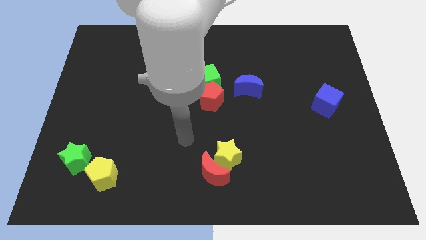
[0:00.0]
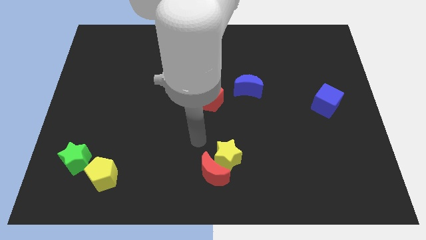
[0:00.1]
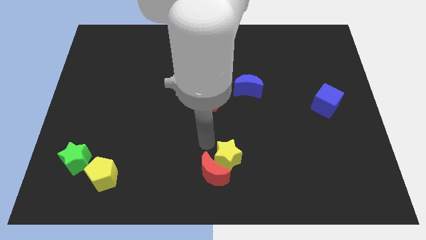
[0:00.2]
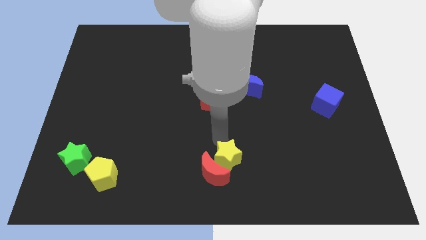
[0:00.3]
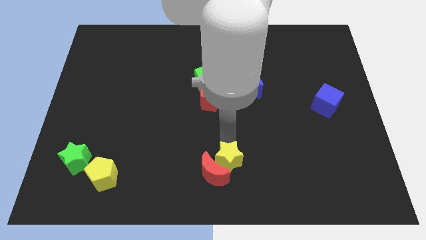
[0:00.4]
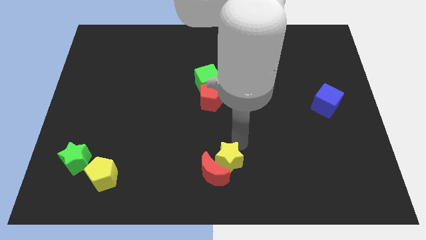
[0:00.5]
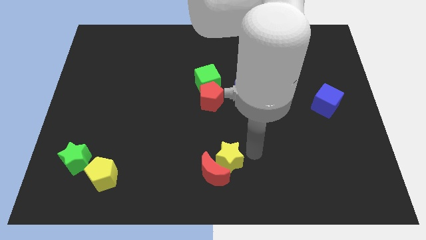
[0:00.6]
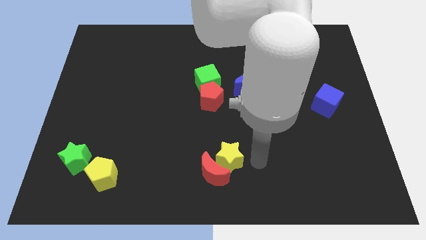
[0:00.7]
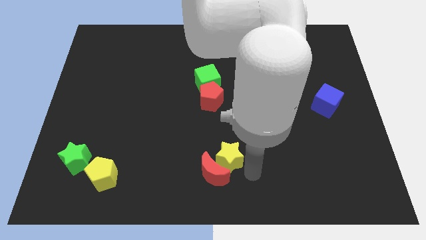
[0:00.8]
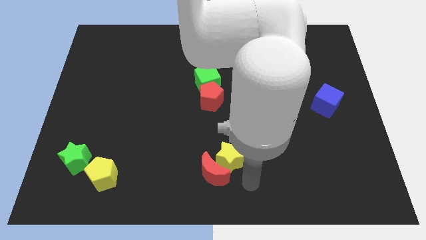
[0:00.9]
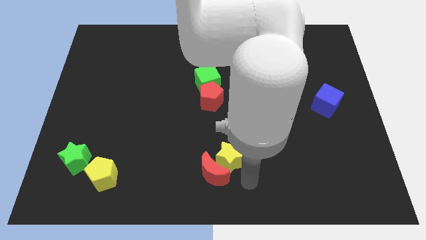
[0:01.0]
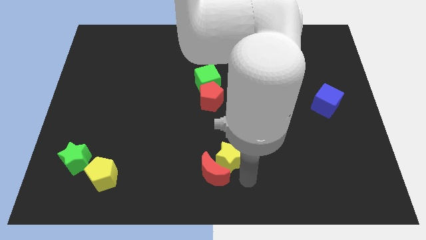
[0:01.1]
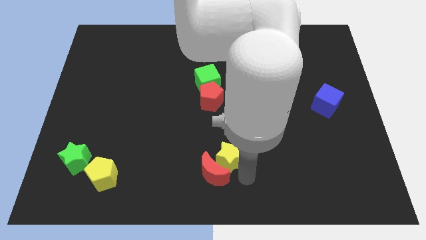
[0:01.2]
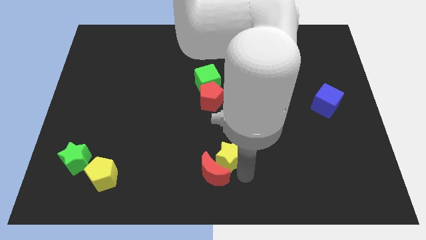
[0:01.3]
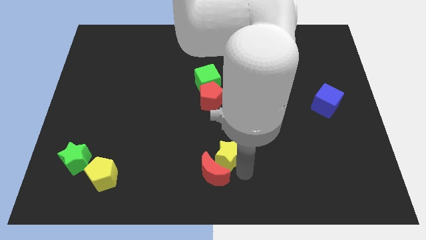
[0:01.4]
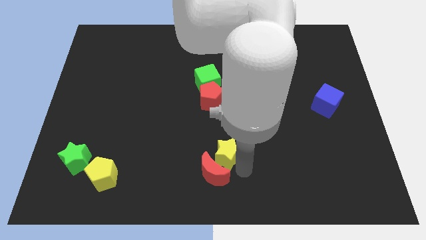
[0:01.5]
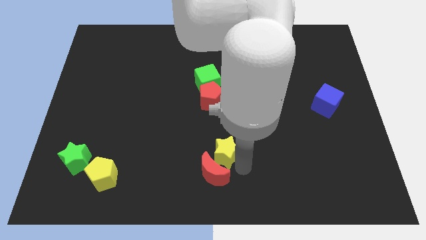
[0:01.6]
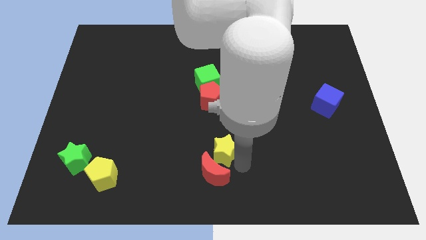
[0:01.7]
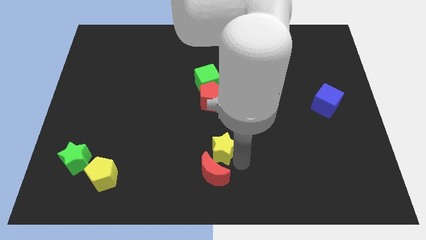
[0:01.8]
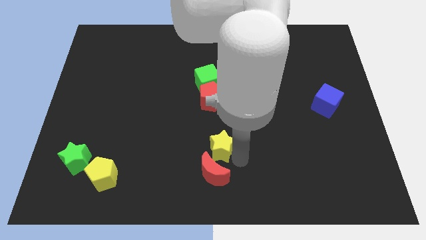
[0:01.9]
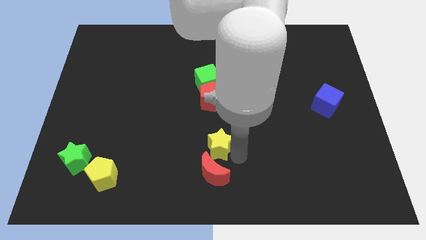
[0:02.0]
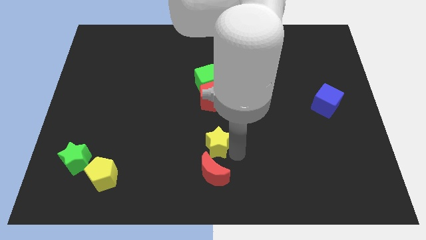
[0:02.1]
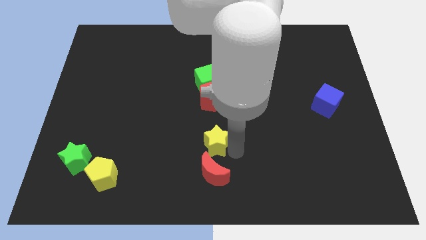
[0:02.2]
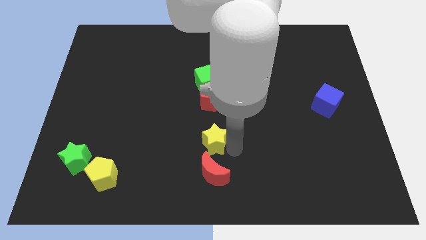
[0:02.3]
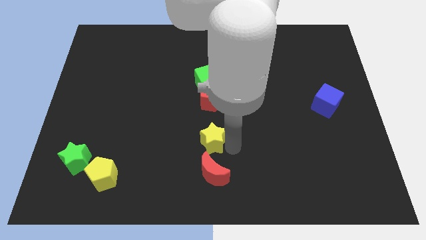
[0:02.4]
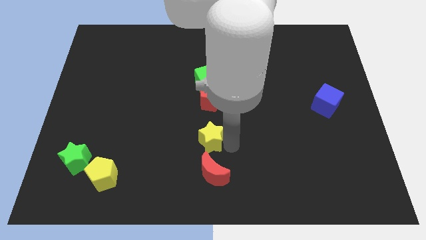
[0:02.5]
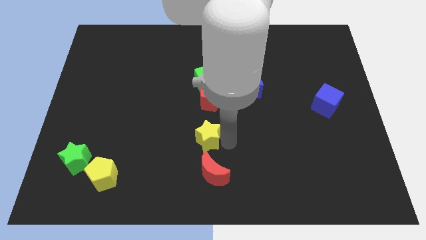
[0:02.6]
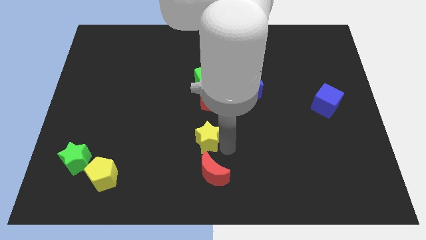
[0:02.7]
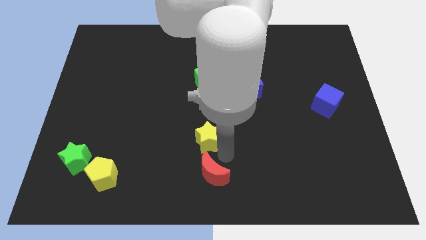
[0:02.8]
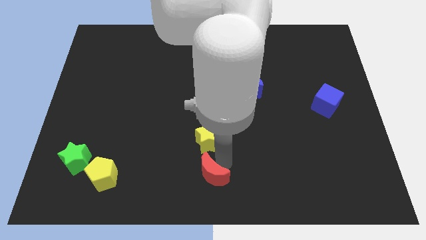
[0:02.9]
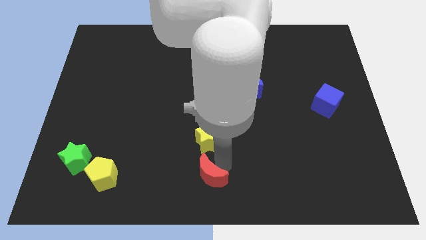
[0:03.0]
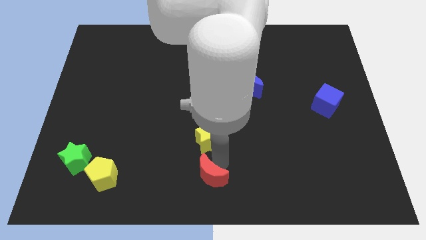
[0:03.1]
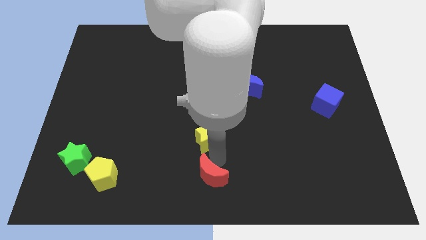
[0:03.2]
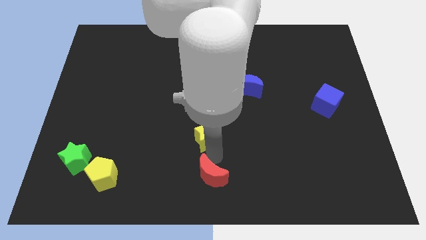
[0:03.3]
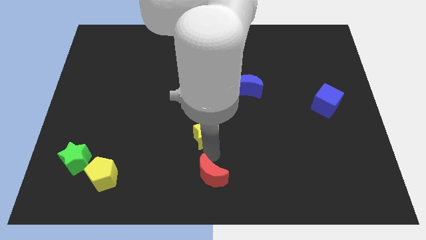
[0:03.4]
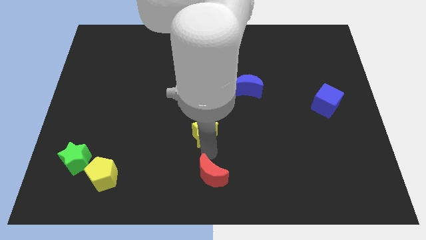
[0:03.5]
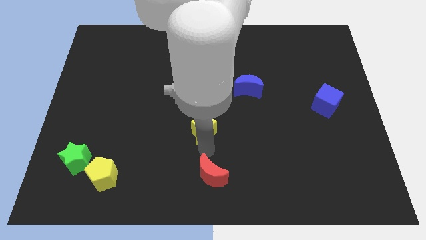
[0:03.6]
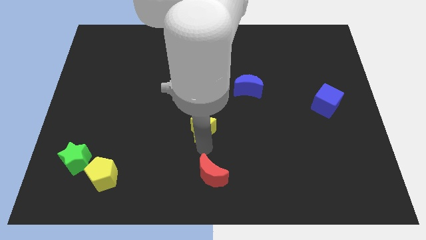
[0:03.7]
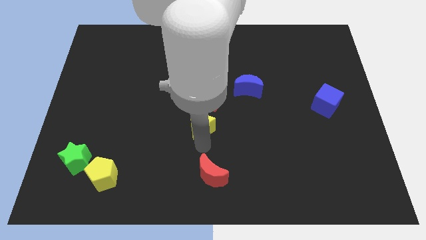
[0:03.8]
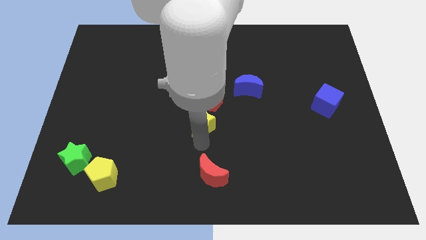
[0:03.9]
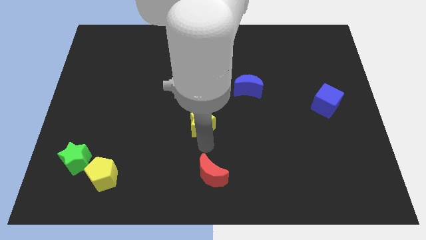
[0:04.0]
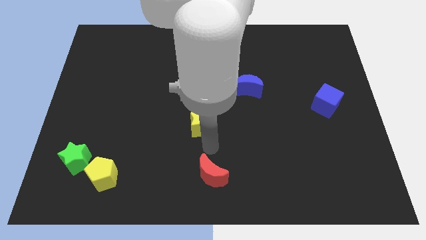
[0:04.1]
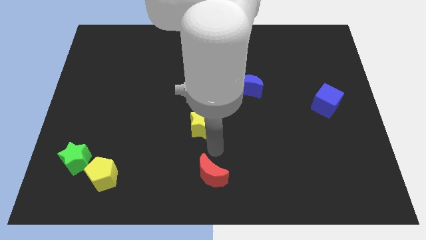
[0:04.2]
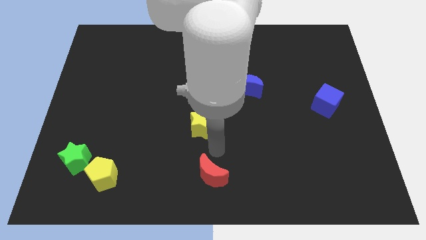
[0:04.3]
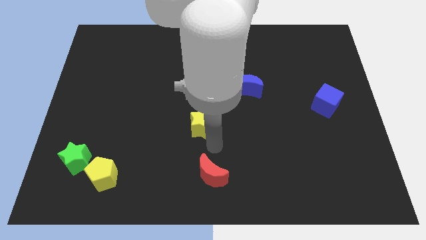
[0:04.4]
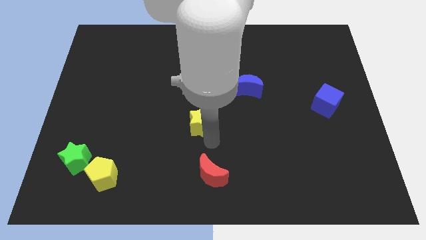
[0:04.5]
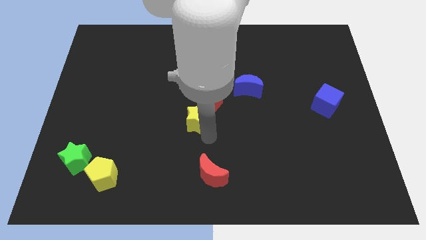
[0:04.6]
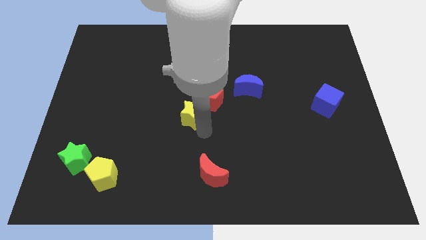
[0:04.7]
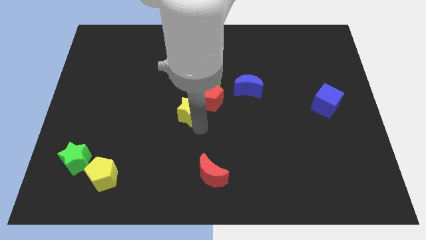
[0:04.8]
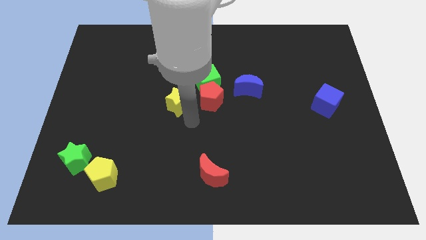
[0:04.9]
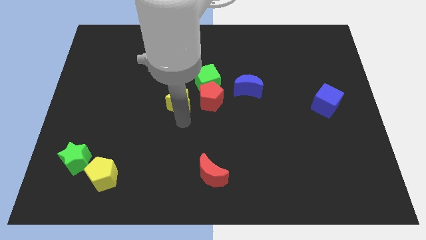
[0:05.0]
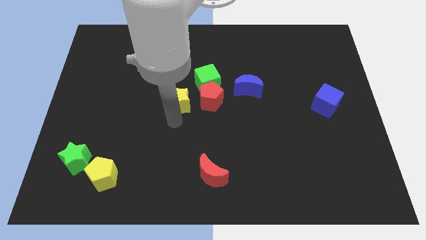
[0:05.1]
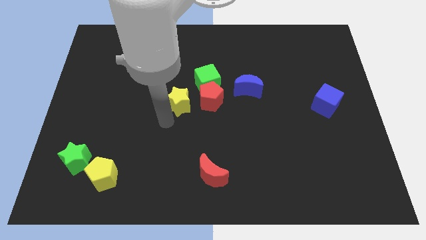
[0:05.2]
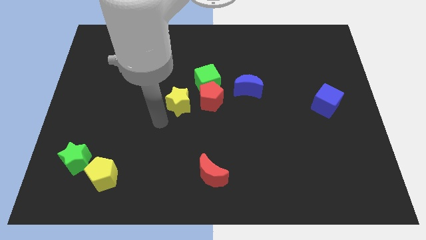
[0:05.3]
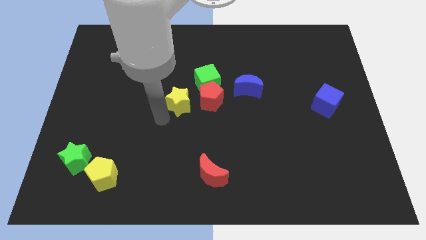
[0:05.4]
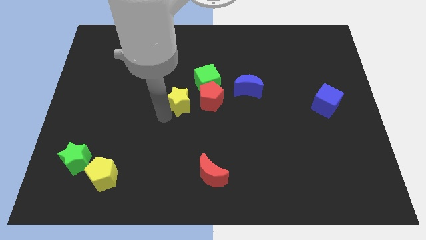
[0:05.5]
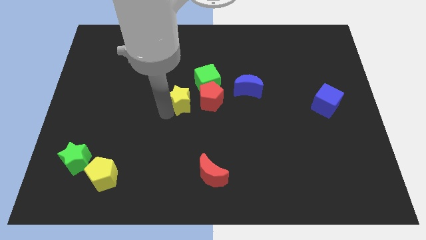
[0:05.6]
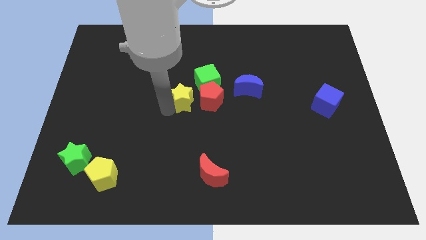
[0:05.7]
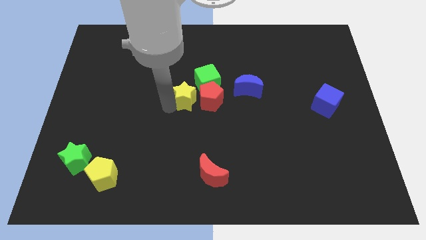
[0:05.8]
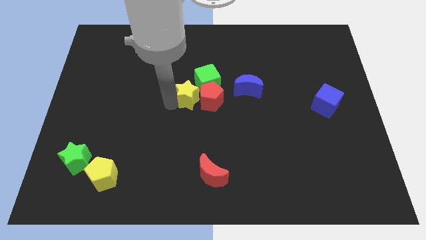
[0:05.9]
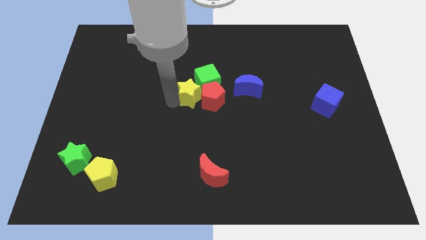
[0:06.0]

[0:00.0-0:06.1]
push the yellow star next to the green cube

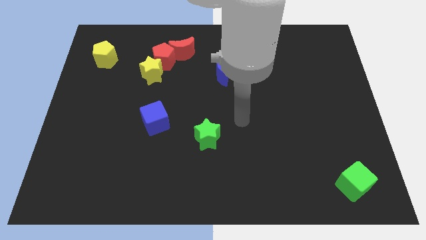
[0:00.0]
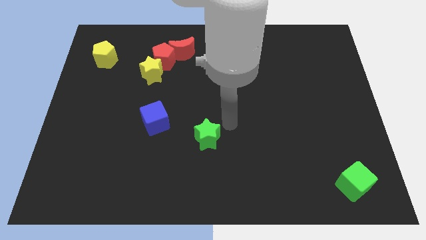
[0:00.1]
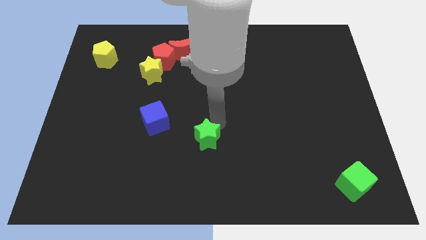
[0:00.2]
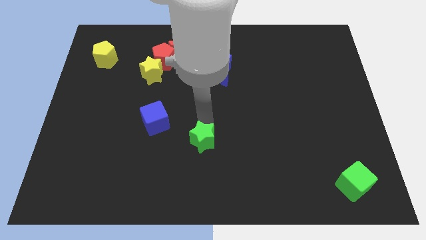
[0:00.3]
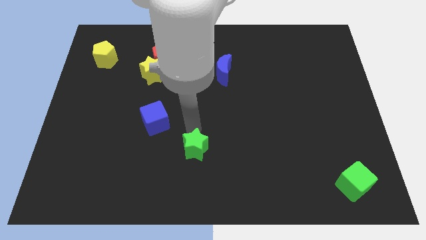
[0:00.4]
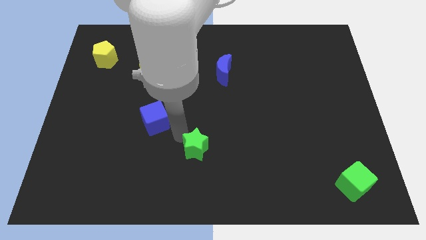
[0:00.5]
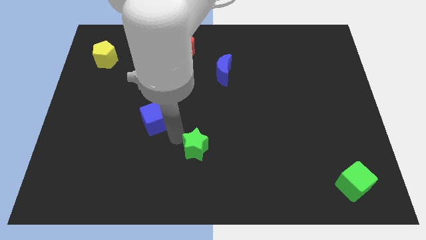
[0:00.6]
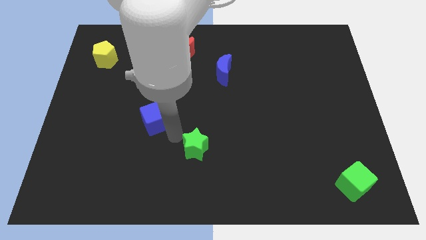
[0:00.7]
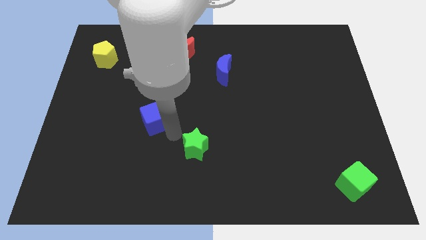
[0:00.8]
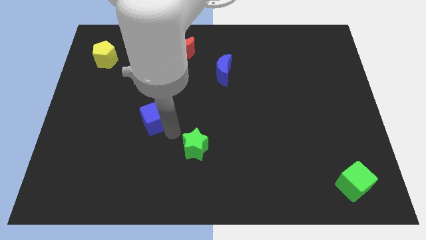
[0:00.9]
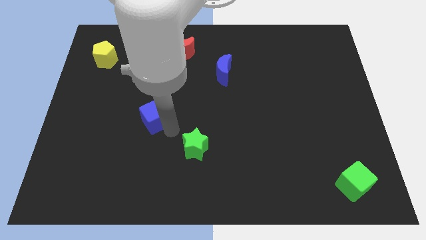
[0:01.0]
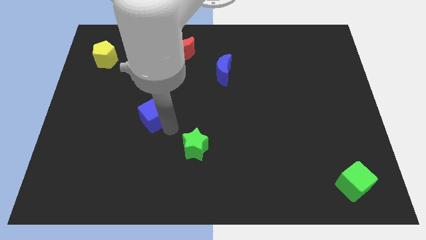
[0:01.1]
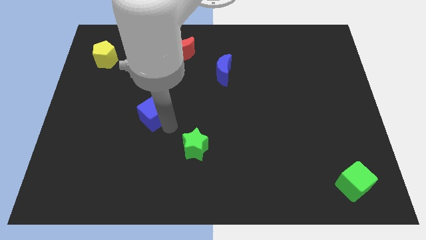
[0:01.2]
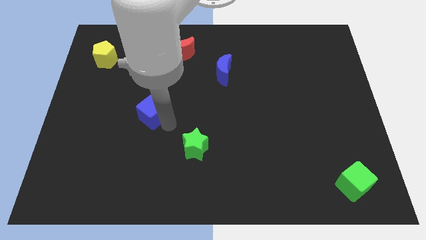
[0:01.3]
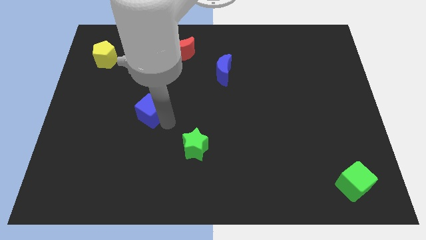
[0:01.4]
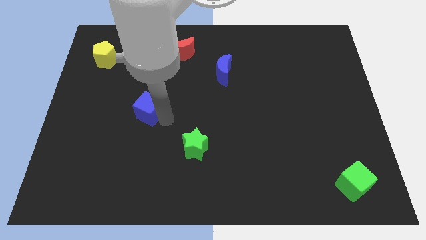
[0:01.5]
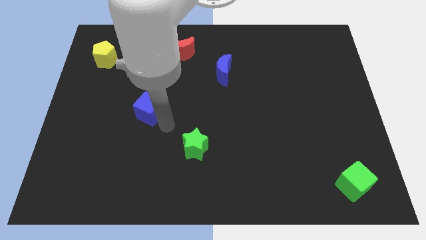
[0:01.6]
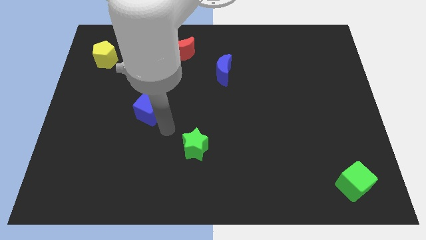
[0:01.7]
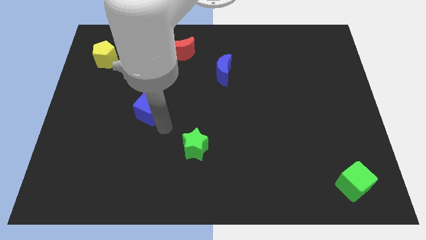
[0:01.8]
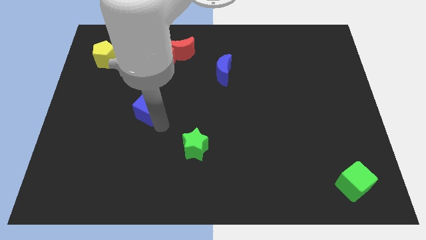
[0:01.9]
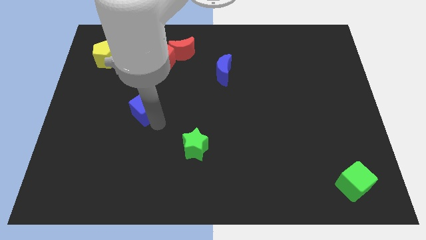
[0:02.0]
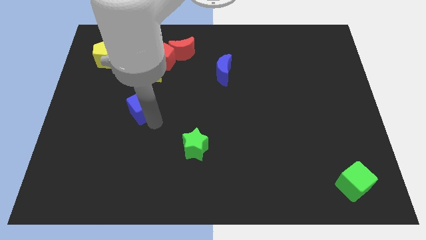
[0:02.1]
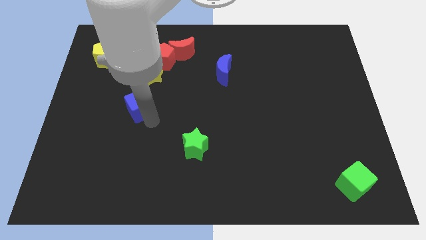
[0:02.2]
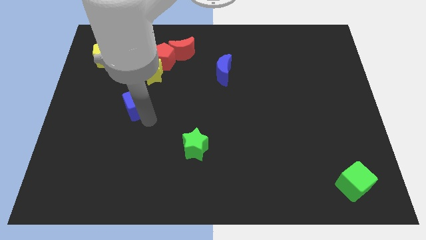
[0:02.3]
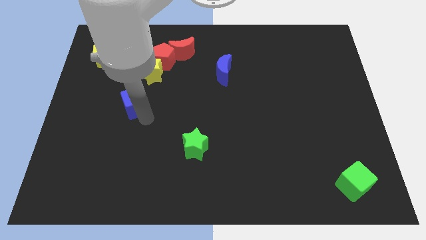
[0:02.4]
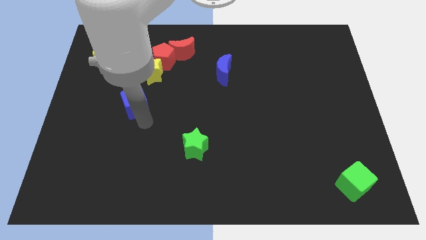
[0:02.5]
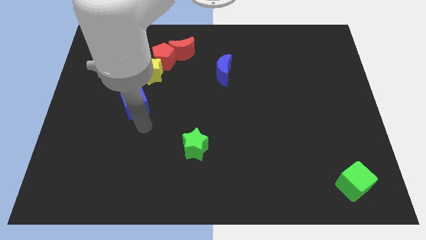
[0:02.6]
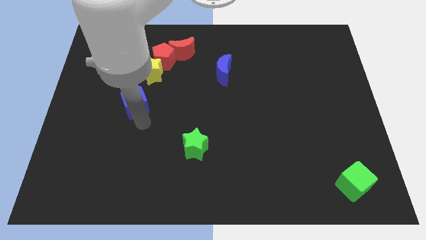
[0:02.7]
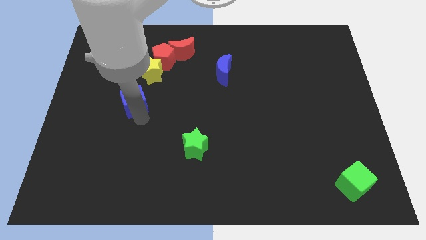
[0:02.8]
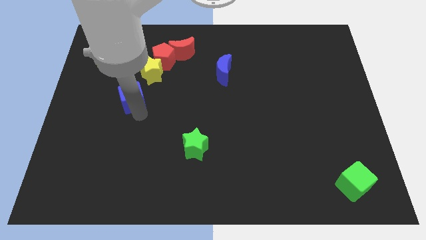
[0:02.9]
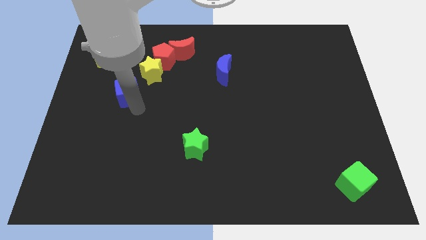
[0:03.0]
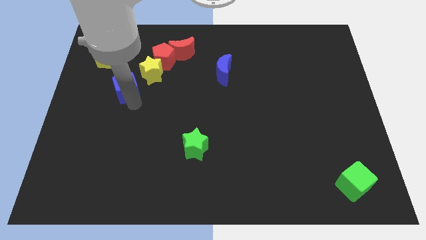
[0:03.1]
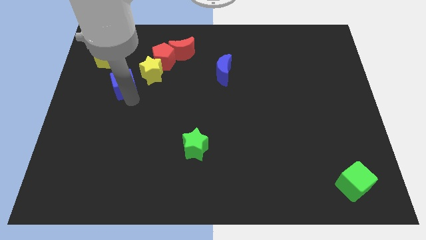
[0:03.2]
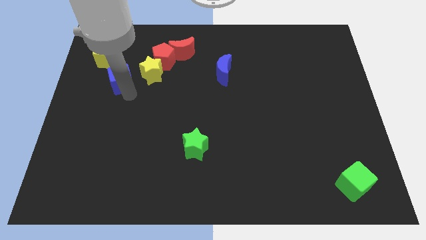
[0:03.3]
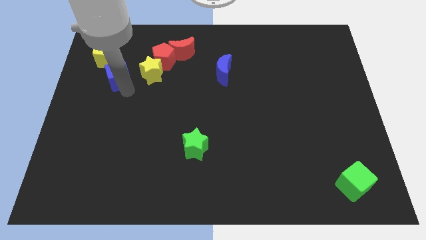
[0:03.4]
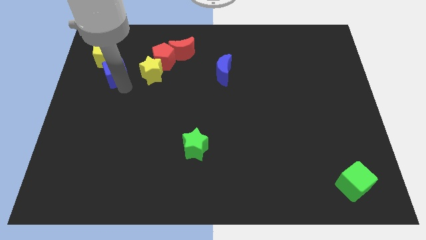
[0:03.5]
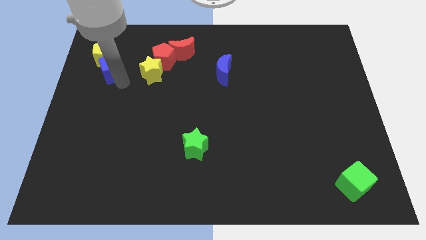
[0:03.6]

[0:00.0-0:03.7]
push the blue cube towards the yellow pentagon
